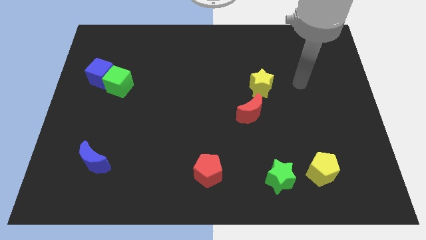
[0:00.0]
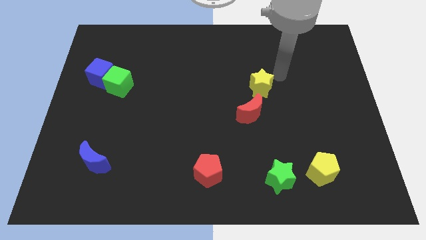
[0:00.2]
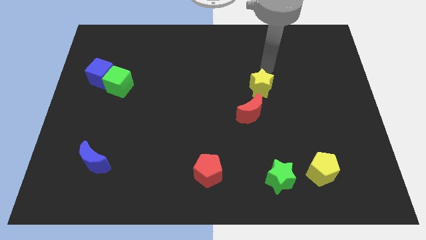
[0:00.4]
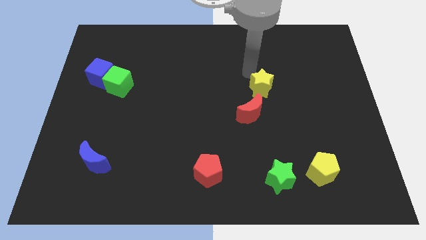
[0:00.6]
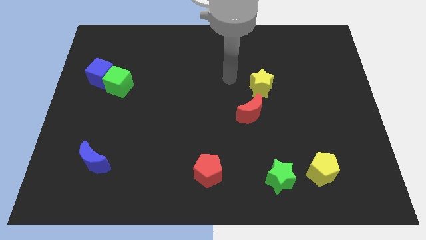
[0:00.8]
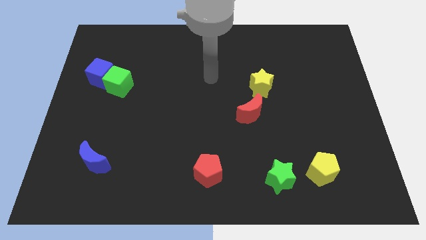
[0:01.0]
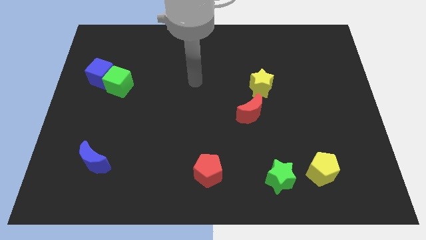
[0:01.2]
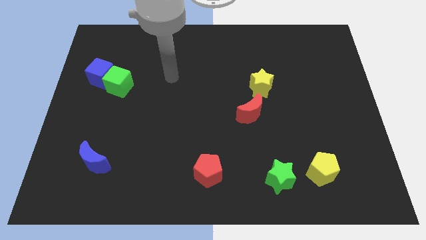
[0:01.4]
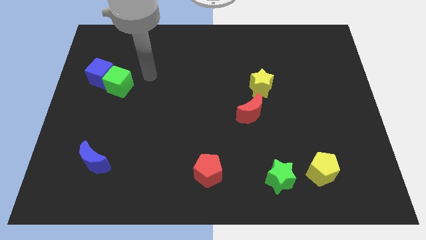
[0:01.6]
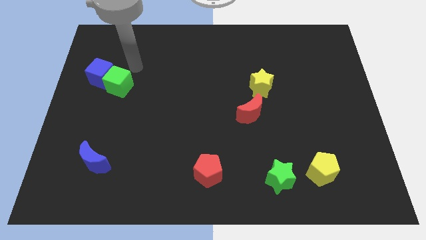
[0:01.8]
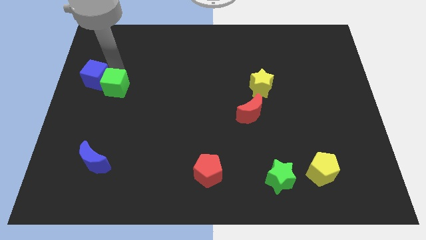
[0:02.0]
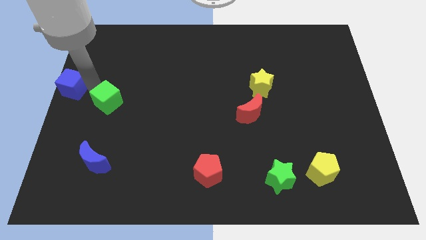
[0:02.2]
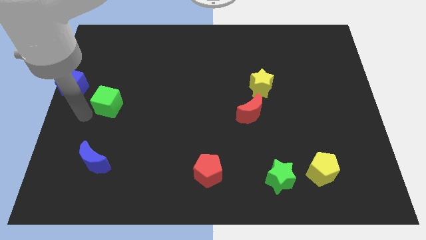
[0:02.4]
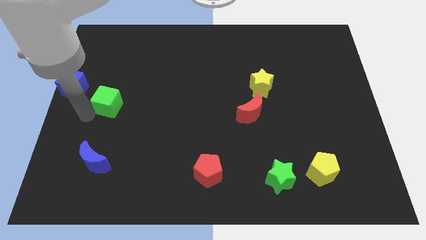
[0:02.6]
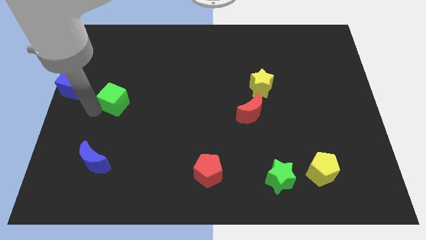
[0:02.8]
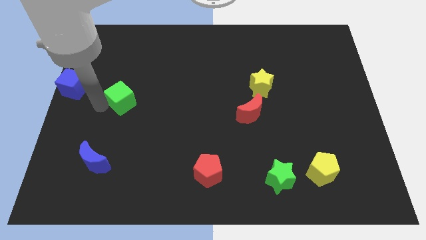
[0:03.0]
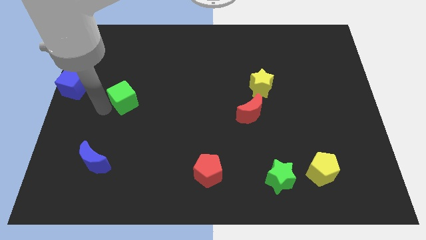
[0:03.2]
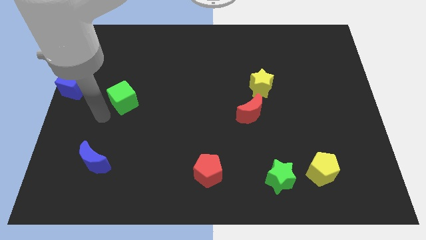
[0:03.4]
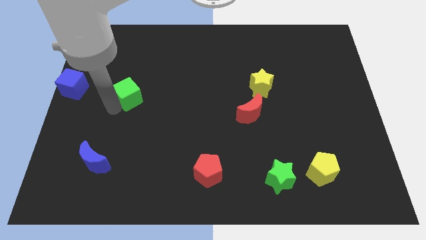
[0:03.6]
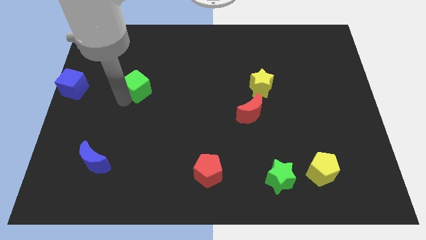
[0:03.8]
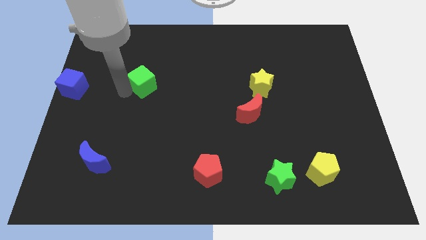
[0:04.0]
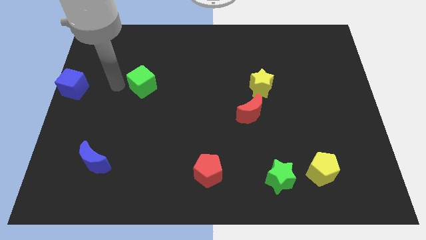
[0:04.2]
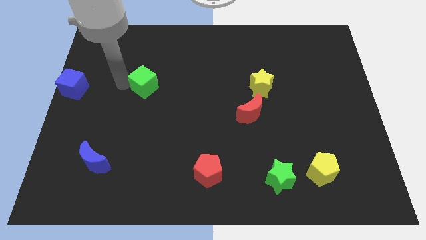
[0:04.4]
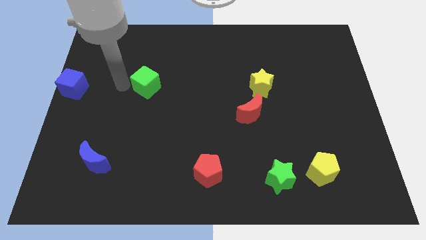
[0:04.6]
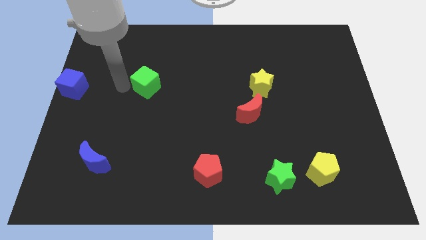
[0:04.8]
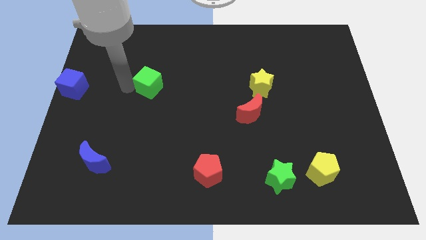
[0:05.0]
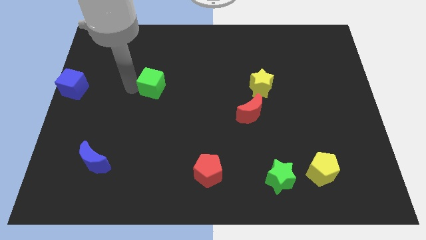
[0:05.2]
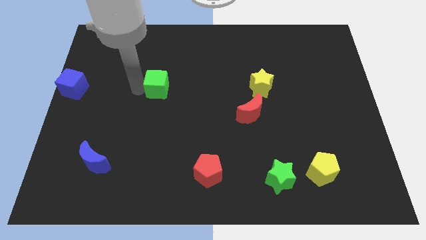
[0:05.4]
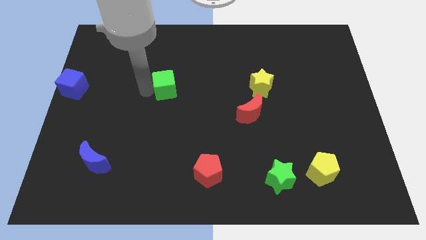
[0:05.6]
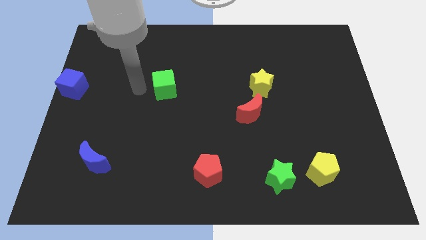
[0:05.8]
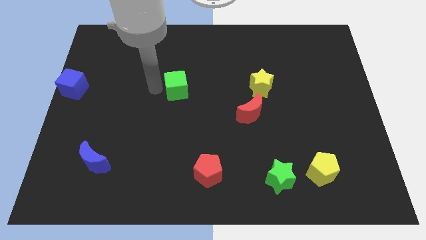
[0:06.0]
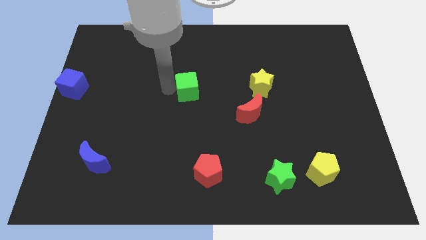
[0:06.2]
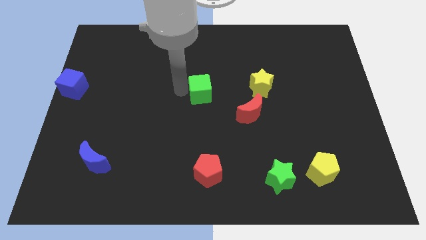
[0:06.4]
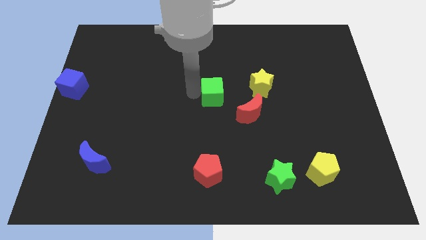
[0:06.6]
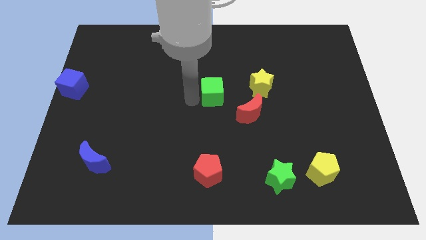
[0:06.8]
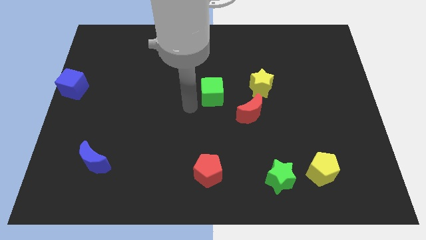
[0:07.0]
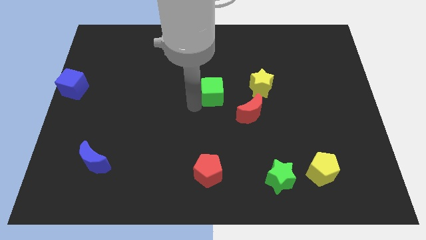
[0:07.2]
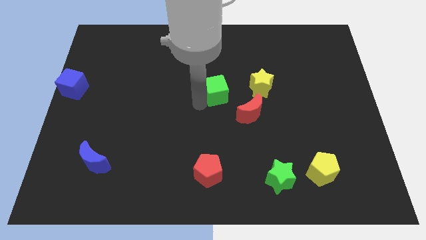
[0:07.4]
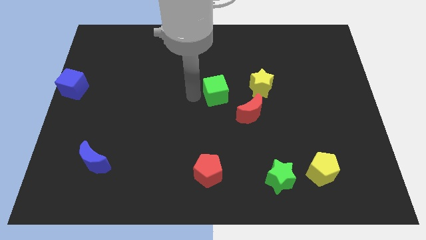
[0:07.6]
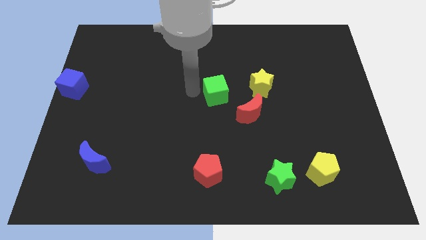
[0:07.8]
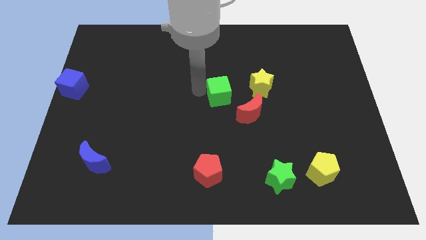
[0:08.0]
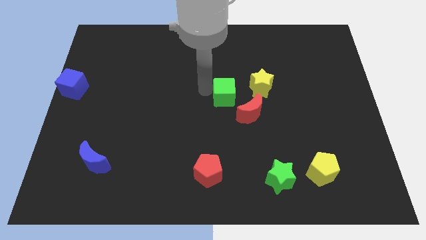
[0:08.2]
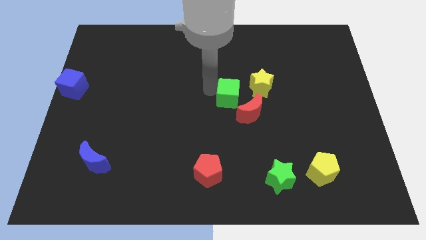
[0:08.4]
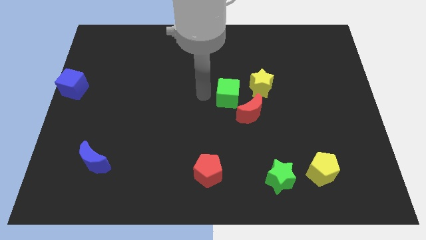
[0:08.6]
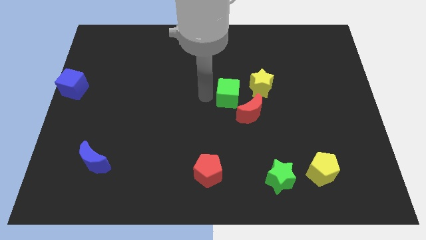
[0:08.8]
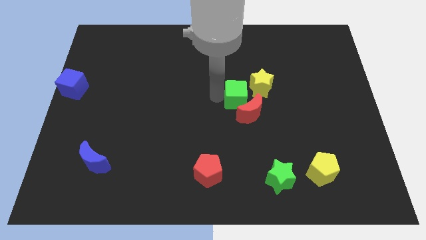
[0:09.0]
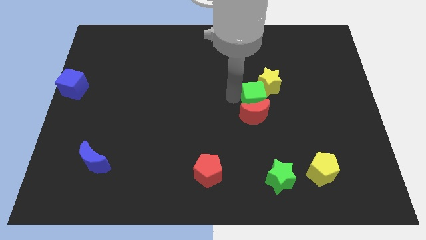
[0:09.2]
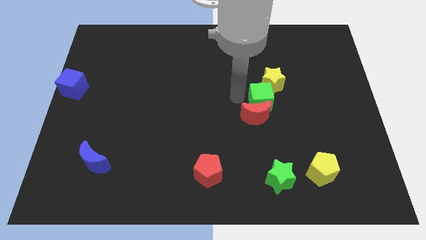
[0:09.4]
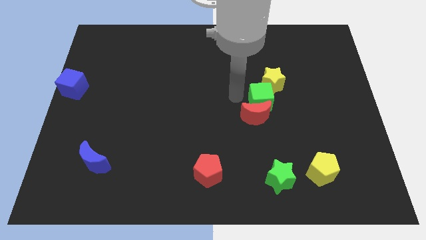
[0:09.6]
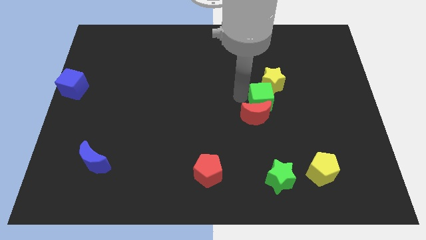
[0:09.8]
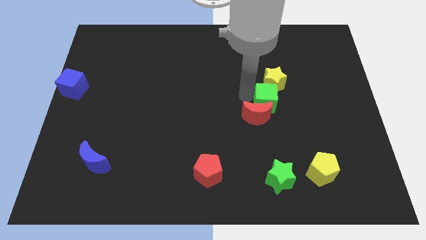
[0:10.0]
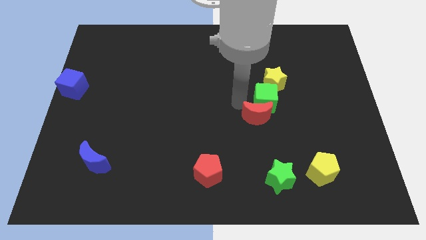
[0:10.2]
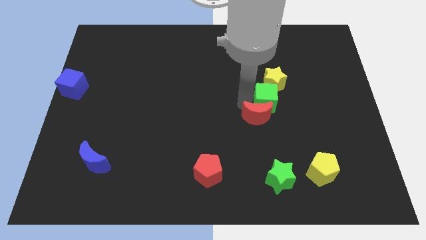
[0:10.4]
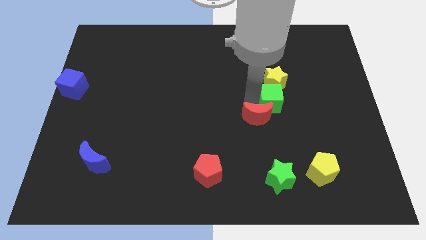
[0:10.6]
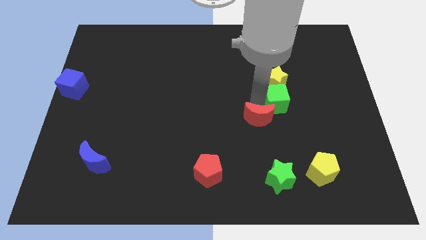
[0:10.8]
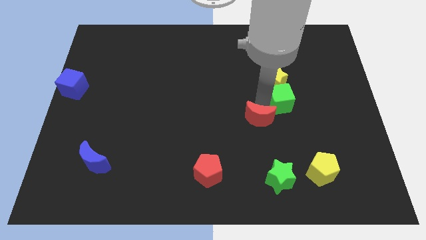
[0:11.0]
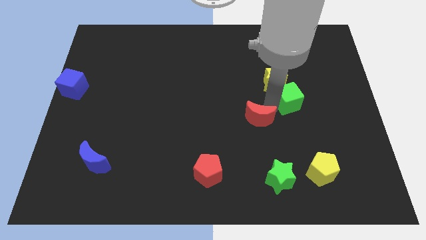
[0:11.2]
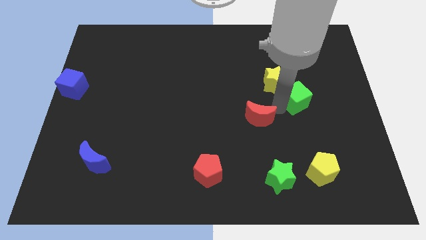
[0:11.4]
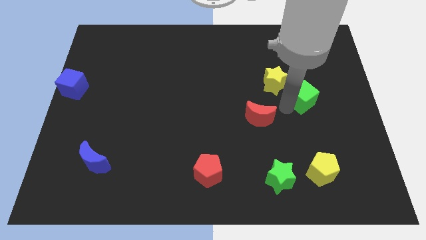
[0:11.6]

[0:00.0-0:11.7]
put the green cube right of the yellow star
